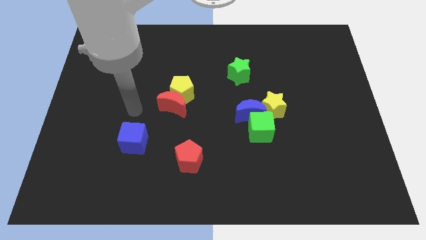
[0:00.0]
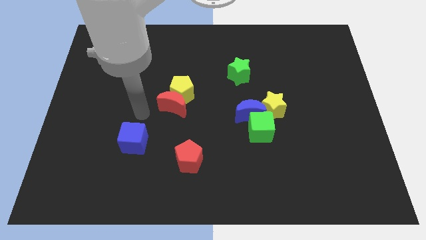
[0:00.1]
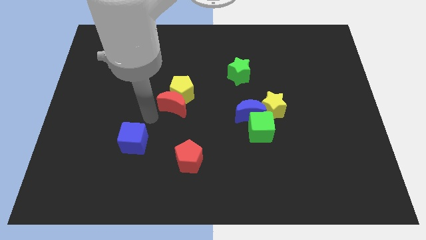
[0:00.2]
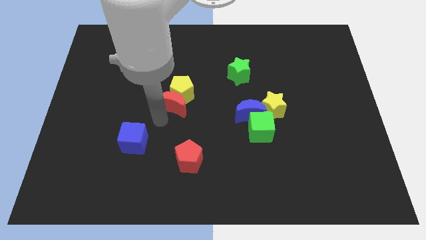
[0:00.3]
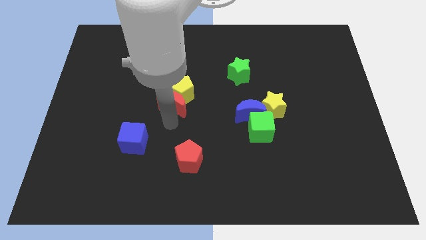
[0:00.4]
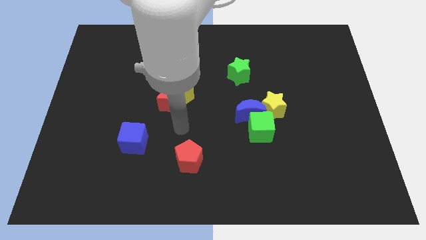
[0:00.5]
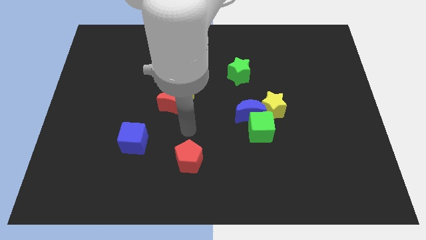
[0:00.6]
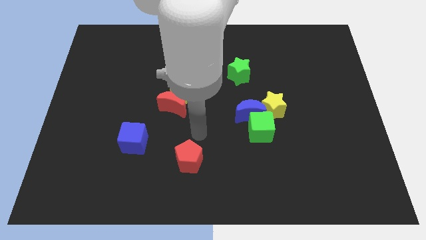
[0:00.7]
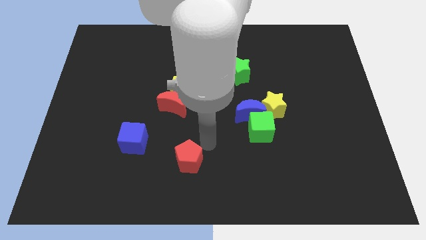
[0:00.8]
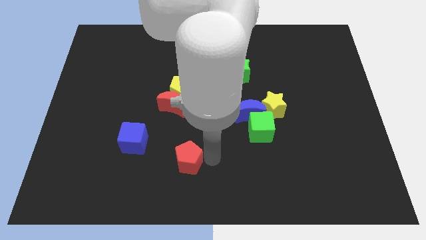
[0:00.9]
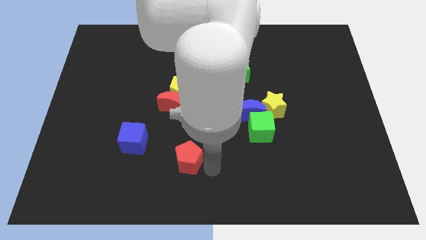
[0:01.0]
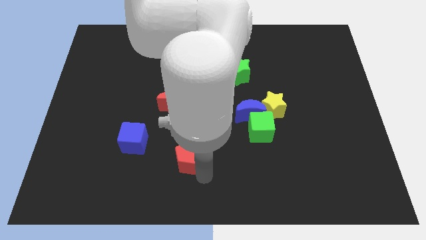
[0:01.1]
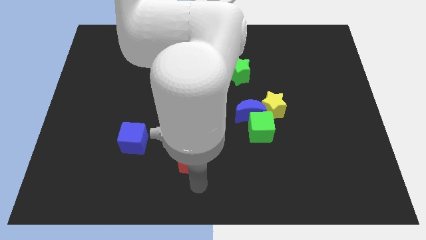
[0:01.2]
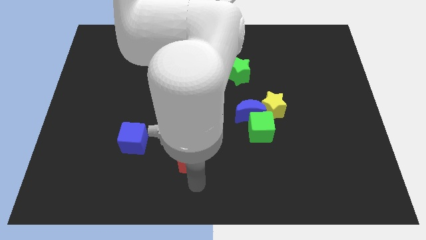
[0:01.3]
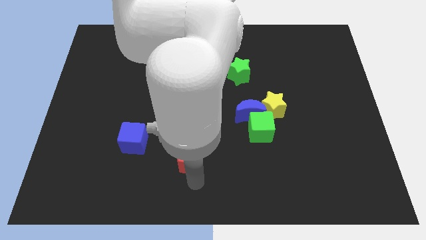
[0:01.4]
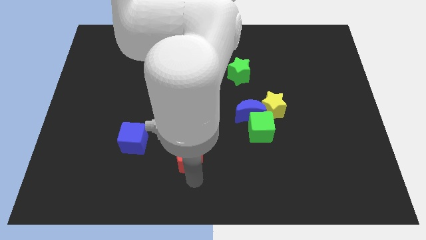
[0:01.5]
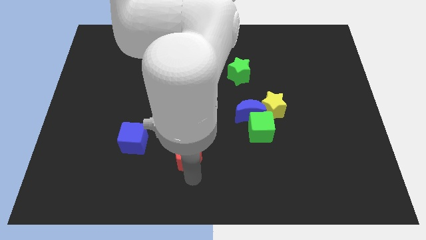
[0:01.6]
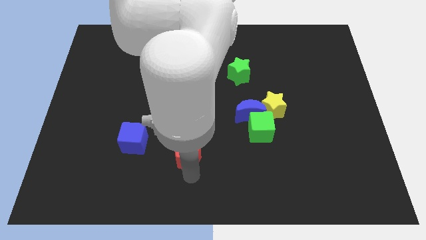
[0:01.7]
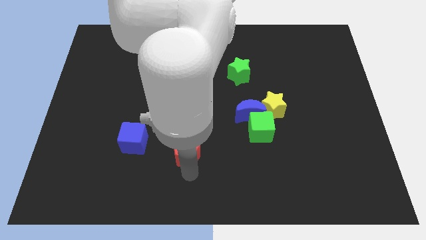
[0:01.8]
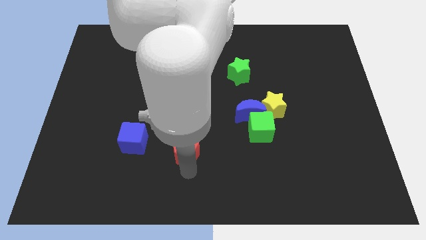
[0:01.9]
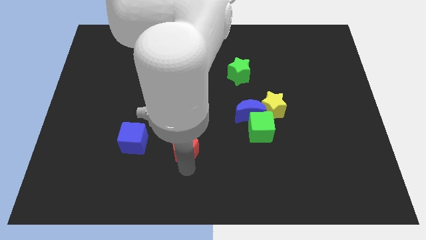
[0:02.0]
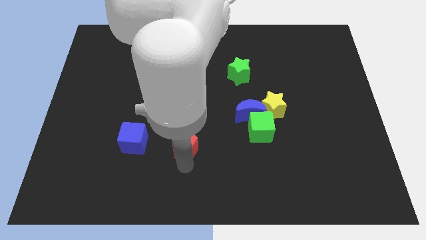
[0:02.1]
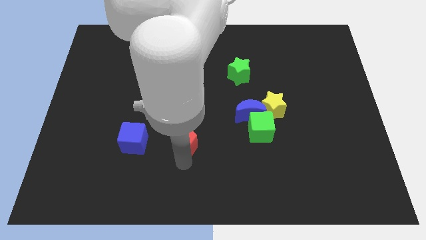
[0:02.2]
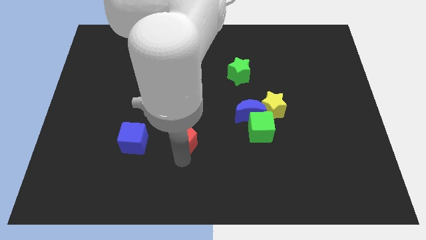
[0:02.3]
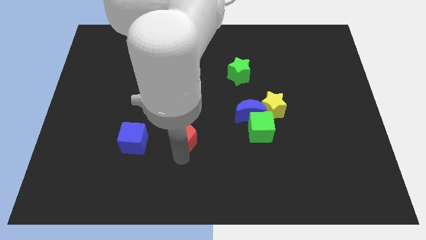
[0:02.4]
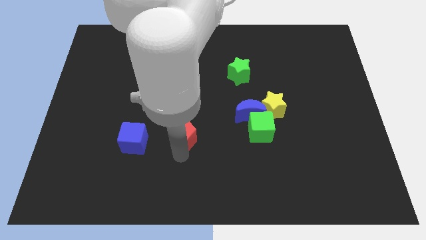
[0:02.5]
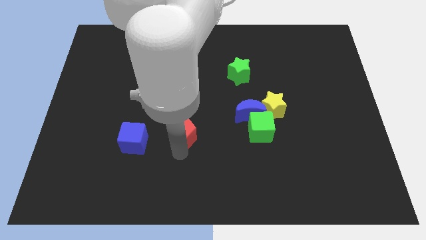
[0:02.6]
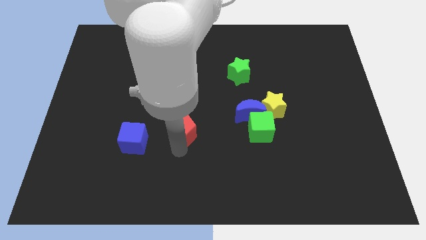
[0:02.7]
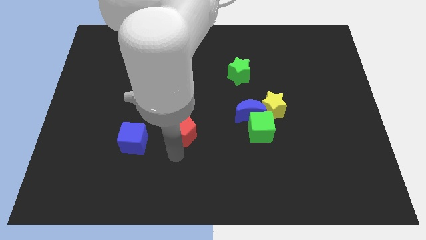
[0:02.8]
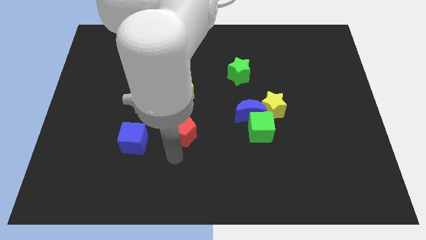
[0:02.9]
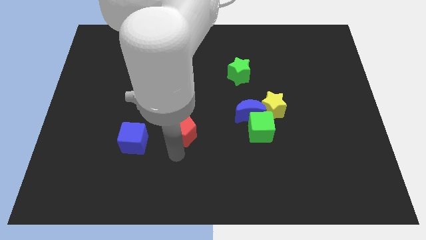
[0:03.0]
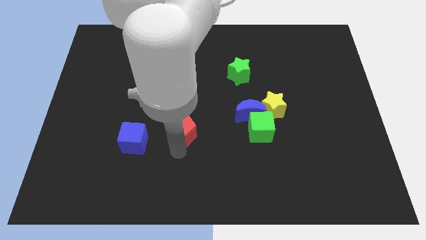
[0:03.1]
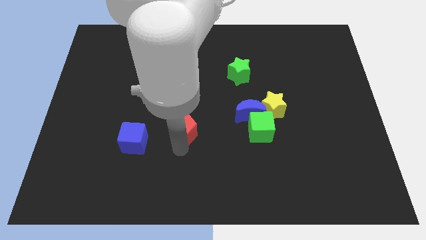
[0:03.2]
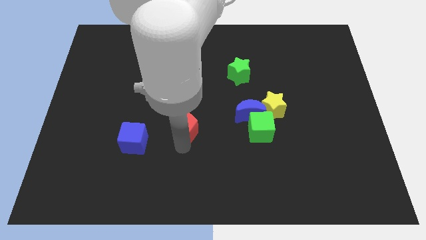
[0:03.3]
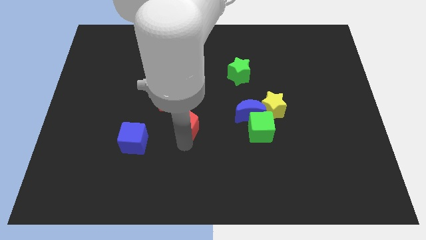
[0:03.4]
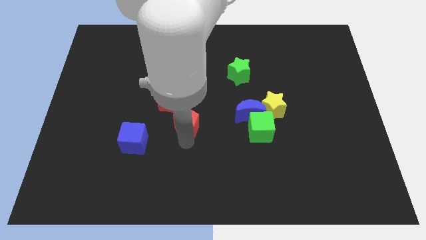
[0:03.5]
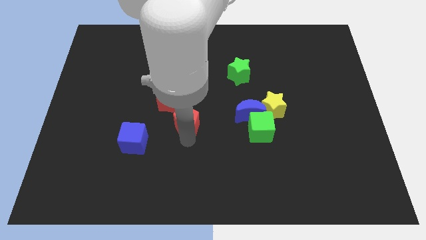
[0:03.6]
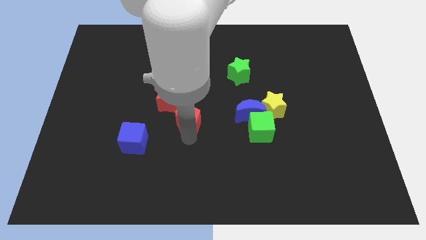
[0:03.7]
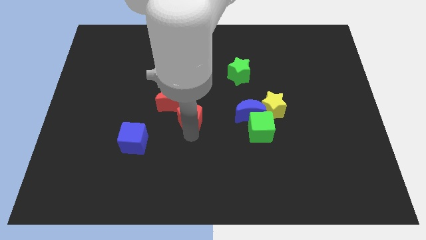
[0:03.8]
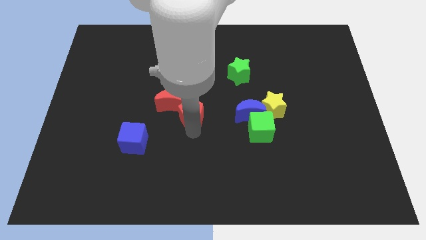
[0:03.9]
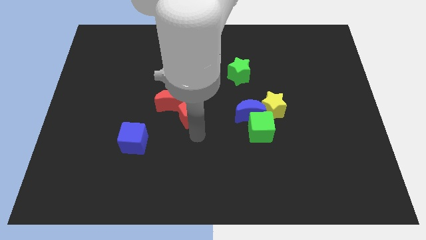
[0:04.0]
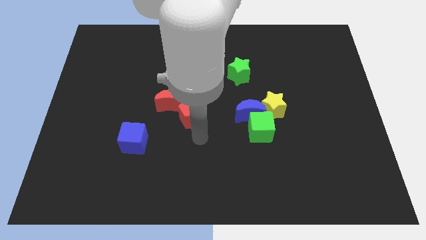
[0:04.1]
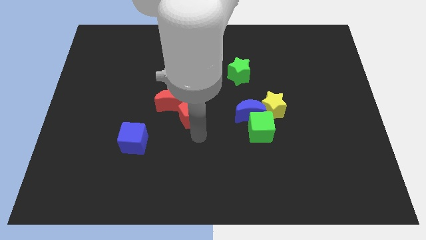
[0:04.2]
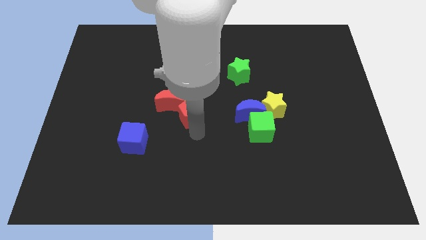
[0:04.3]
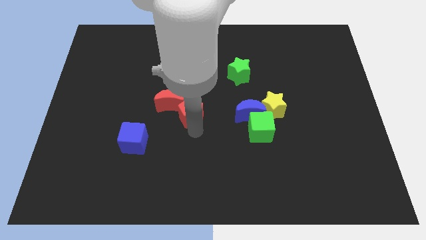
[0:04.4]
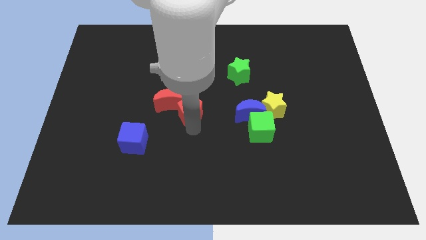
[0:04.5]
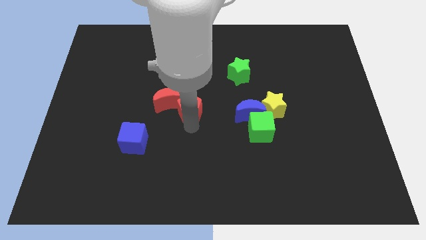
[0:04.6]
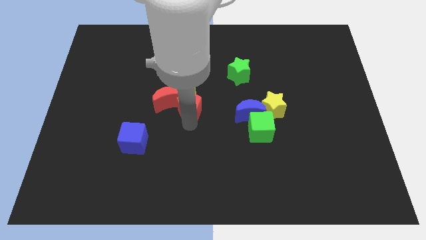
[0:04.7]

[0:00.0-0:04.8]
put the red pentagon close to the yellow pentagon

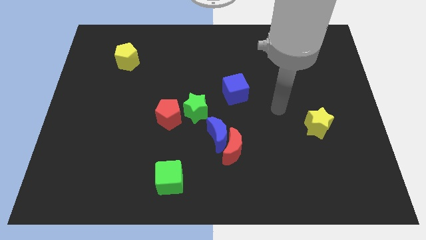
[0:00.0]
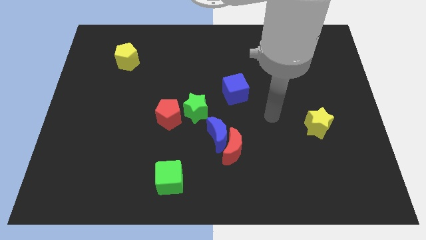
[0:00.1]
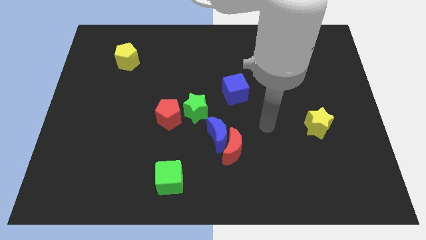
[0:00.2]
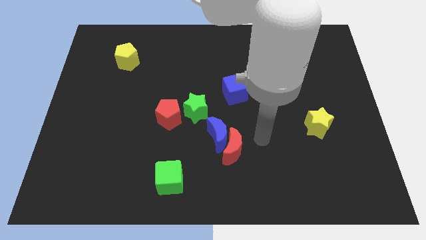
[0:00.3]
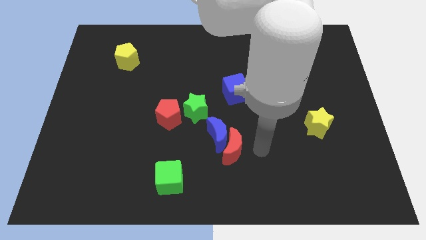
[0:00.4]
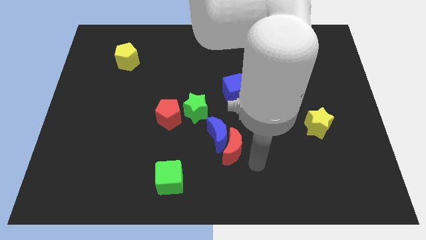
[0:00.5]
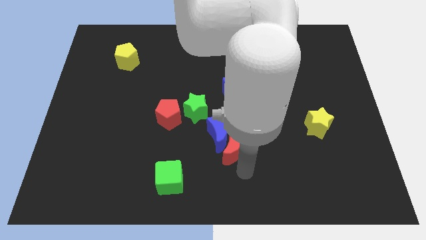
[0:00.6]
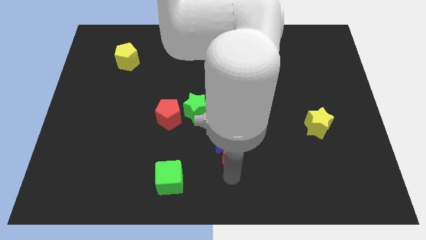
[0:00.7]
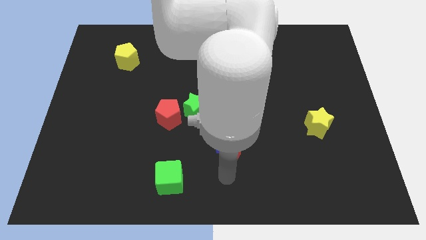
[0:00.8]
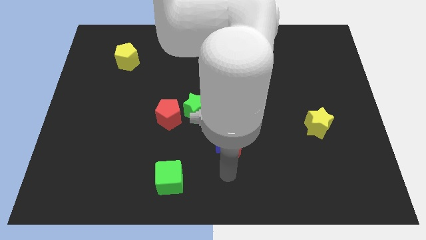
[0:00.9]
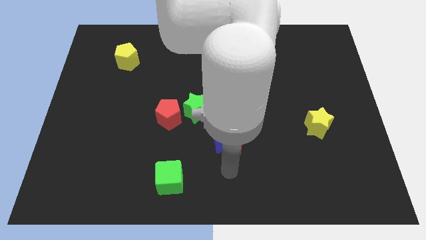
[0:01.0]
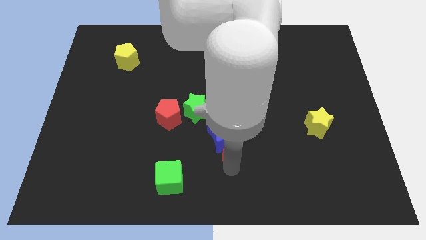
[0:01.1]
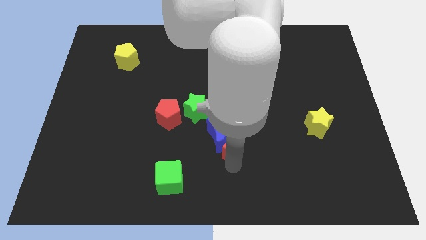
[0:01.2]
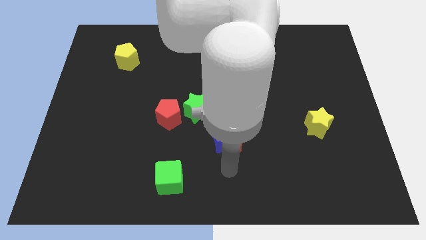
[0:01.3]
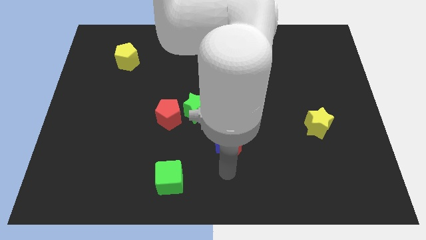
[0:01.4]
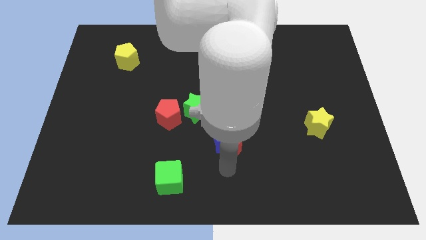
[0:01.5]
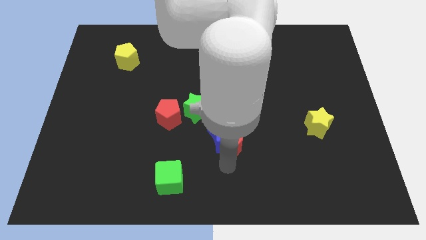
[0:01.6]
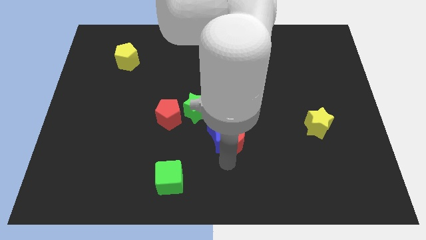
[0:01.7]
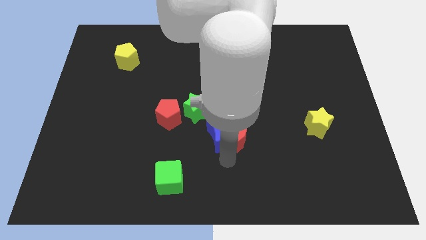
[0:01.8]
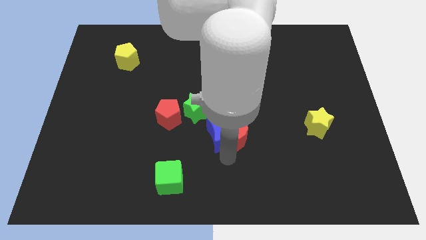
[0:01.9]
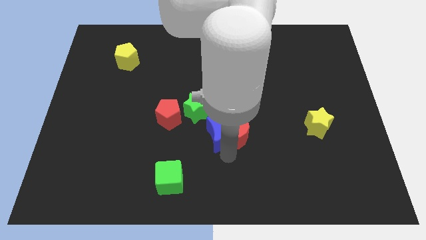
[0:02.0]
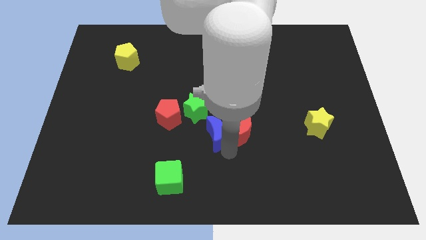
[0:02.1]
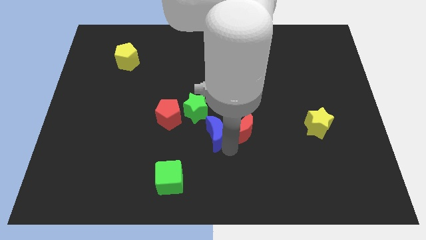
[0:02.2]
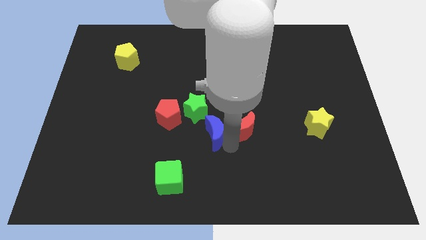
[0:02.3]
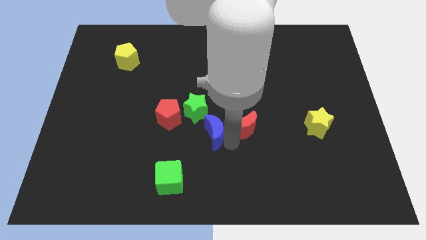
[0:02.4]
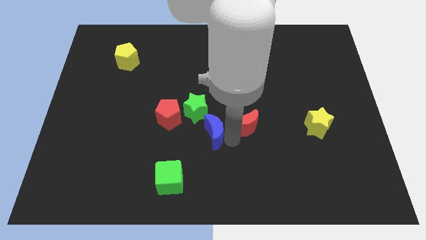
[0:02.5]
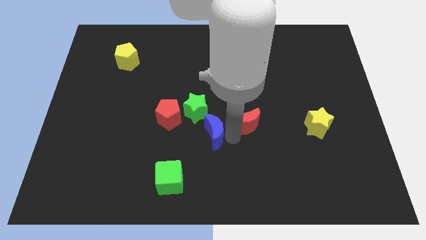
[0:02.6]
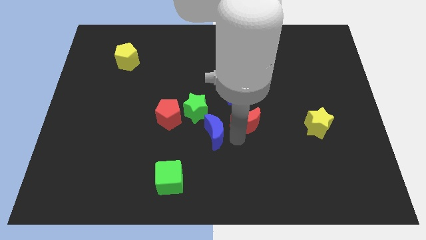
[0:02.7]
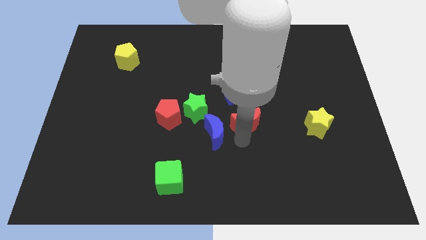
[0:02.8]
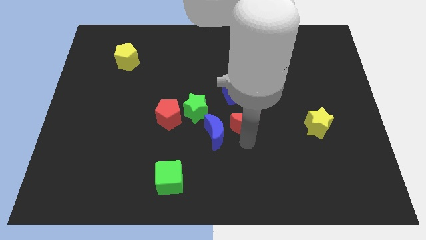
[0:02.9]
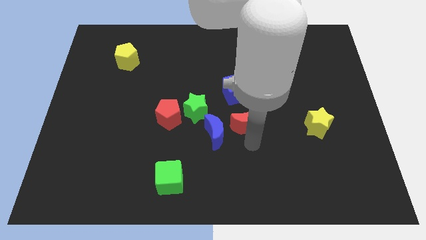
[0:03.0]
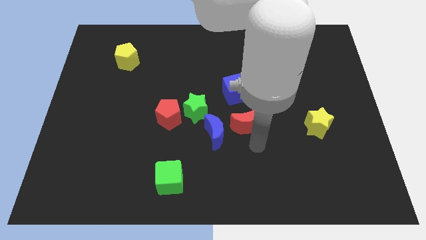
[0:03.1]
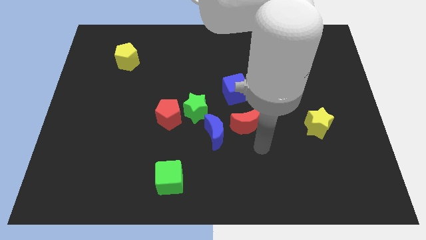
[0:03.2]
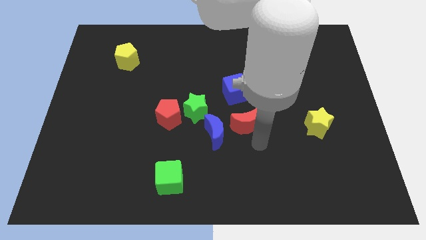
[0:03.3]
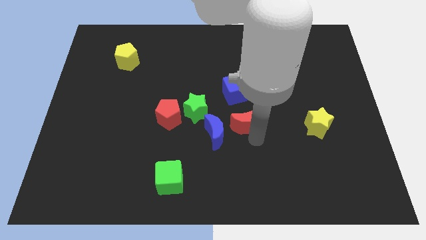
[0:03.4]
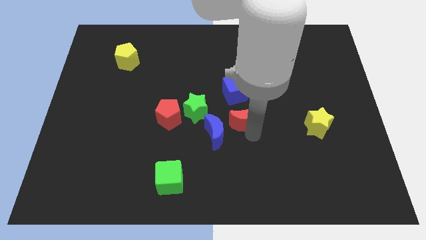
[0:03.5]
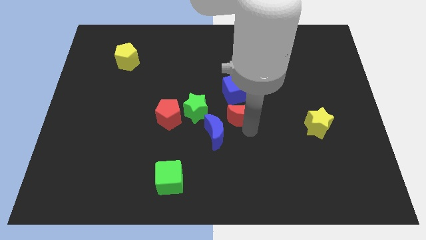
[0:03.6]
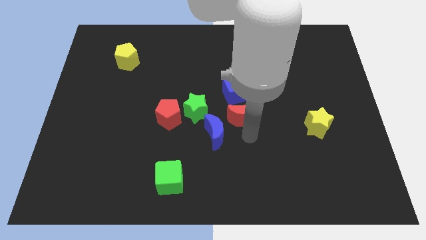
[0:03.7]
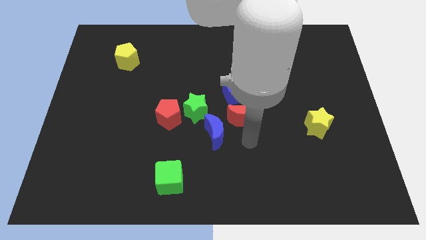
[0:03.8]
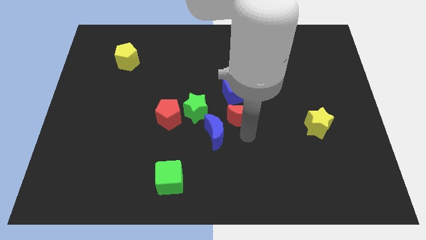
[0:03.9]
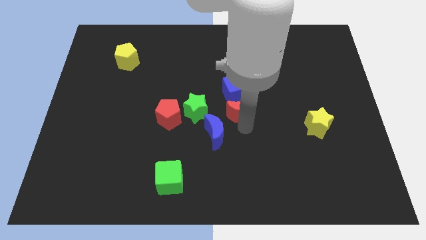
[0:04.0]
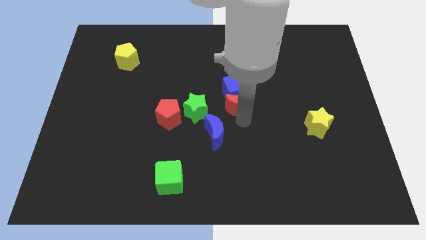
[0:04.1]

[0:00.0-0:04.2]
slide the red moon close to the blue cube
